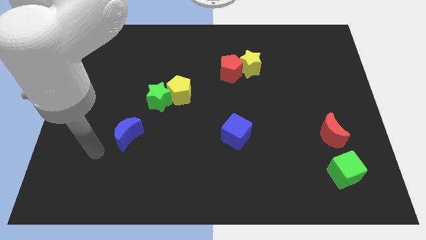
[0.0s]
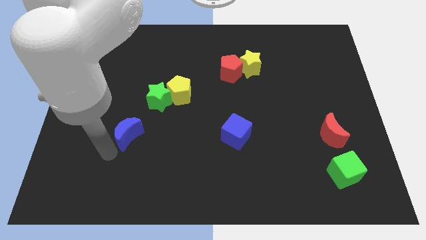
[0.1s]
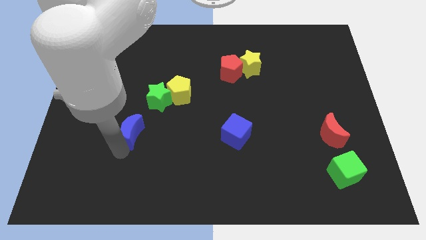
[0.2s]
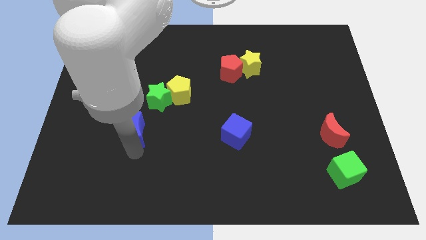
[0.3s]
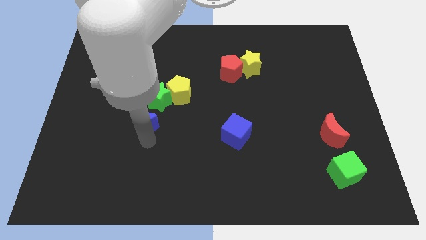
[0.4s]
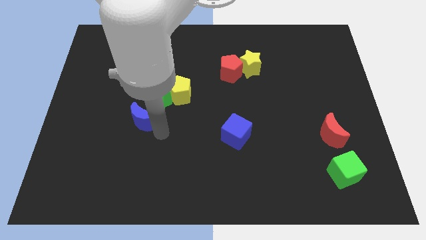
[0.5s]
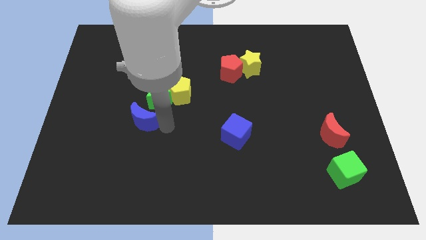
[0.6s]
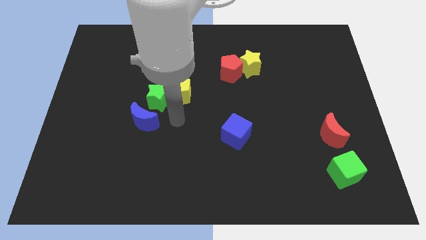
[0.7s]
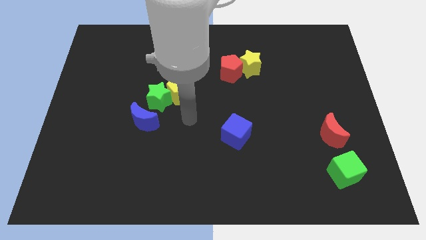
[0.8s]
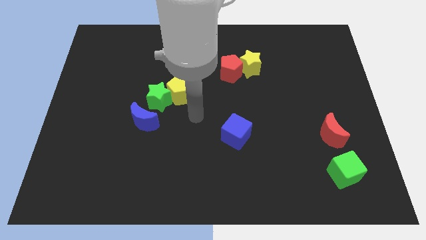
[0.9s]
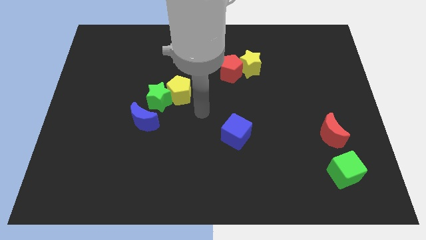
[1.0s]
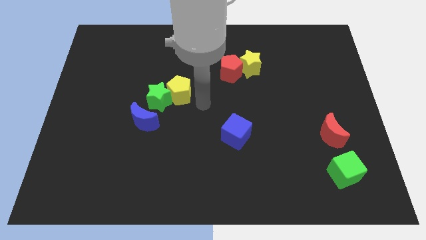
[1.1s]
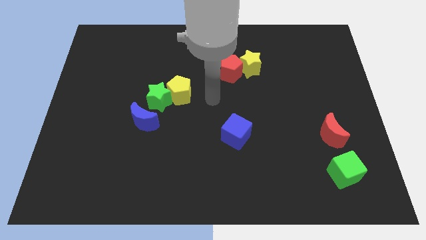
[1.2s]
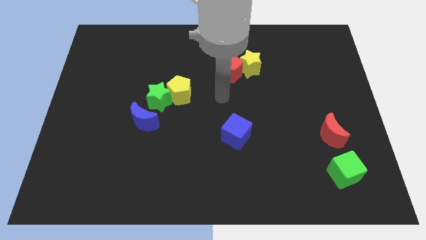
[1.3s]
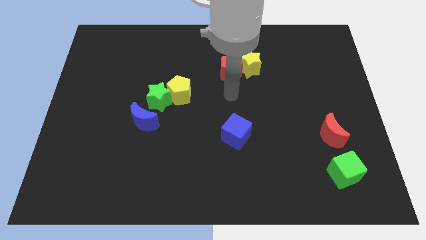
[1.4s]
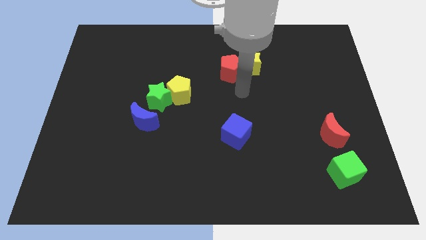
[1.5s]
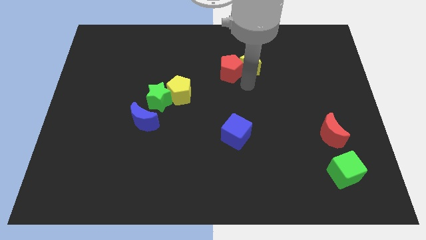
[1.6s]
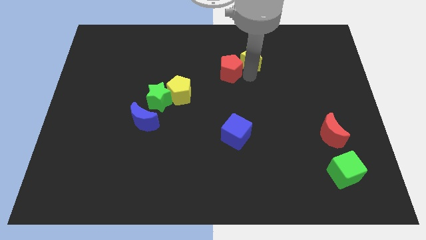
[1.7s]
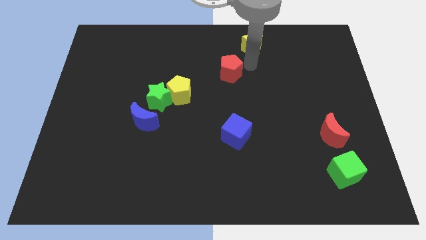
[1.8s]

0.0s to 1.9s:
move the red pentagon away from the yellow star

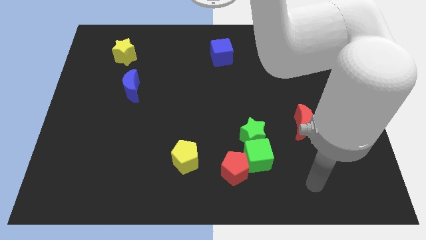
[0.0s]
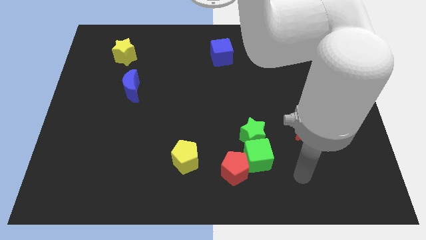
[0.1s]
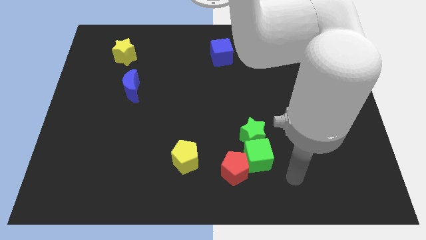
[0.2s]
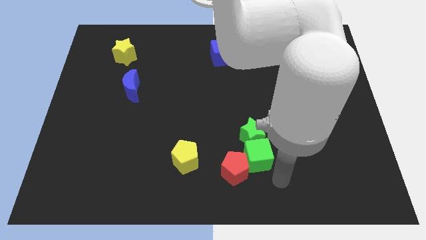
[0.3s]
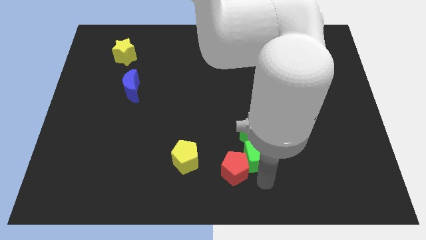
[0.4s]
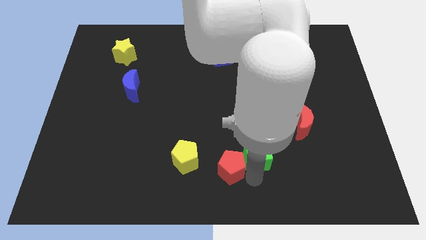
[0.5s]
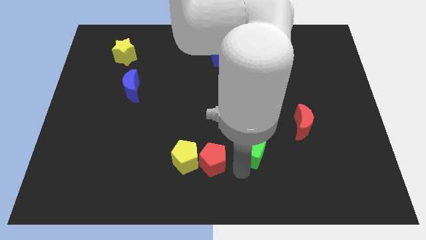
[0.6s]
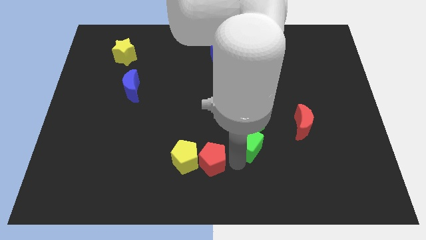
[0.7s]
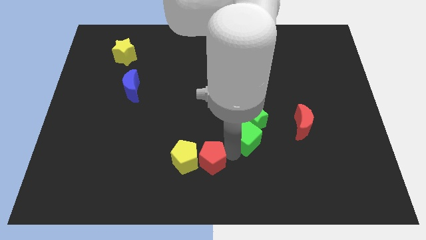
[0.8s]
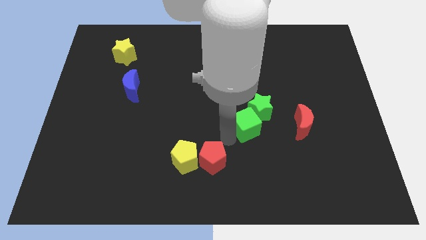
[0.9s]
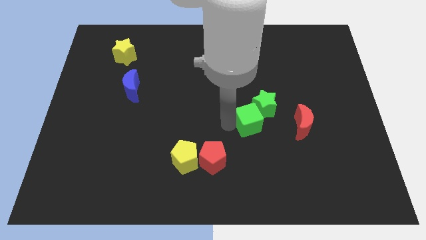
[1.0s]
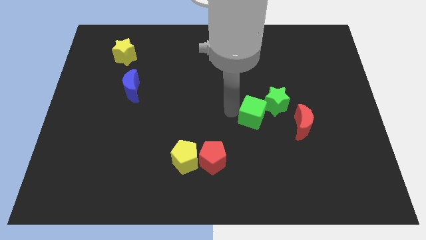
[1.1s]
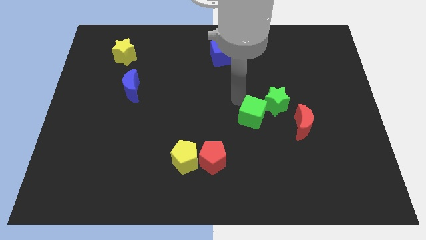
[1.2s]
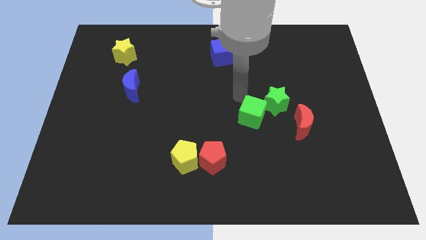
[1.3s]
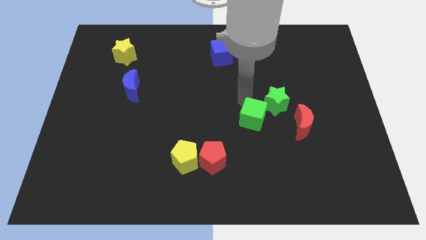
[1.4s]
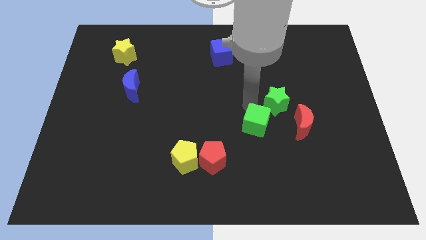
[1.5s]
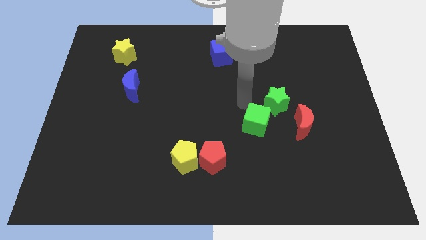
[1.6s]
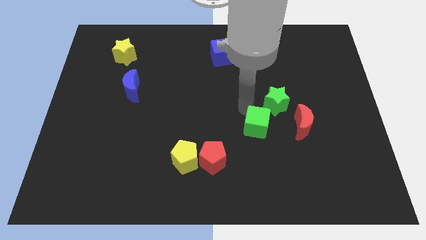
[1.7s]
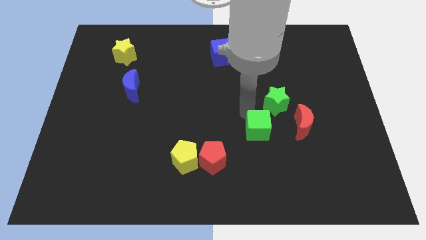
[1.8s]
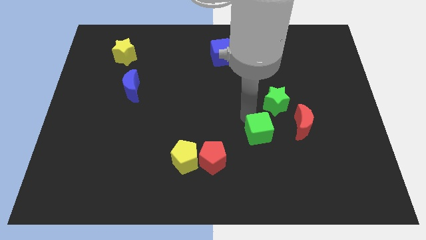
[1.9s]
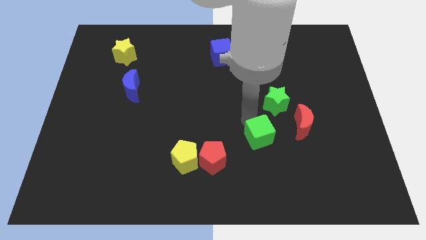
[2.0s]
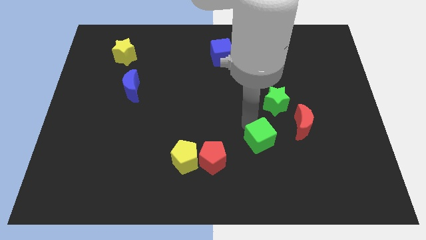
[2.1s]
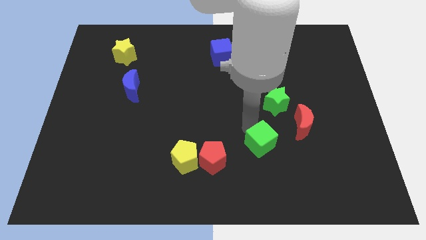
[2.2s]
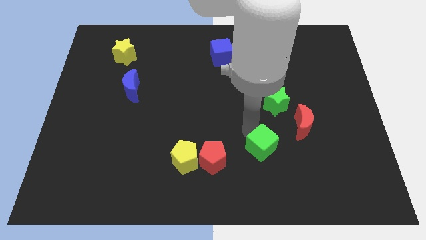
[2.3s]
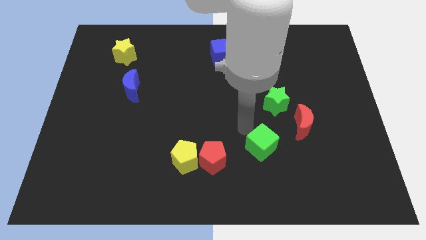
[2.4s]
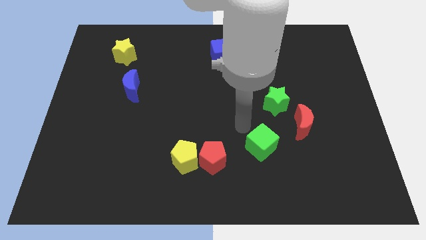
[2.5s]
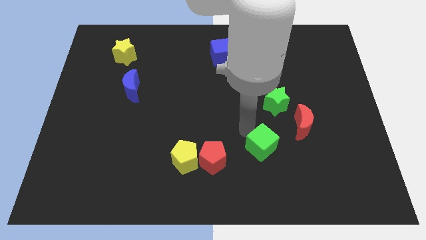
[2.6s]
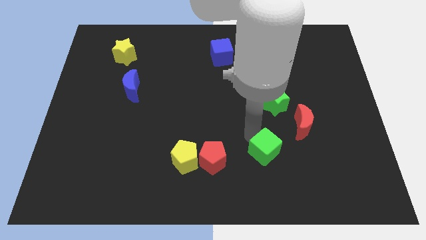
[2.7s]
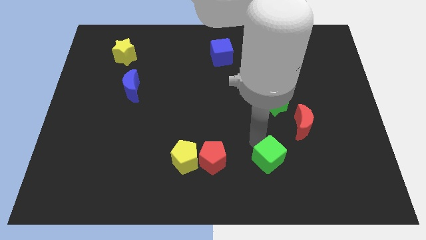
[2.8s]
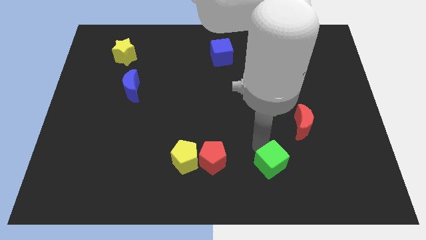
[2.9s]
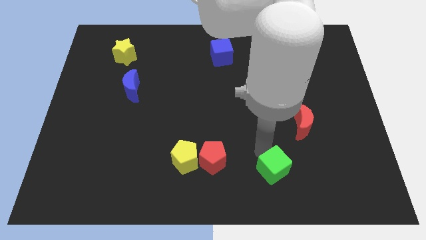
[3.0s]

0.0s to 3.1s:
move the green cube away from the green star and red pentagon

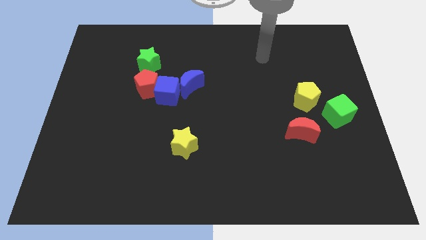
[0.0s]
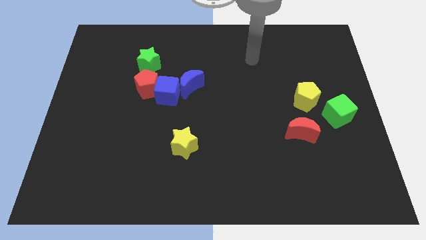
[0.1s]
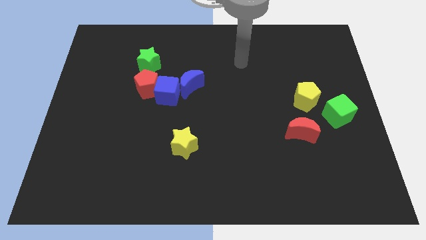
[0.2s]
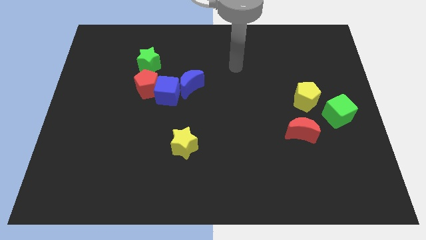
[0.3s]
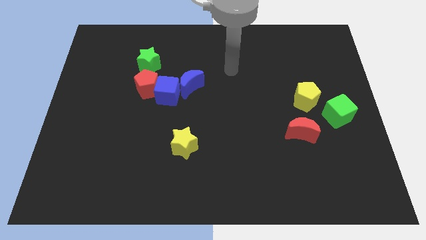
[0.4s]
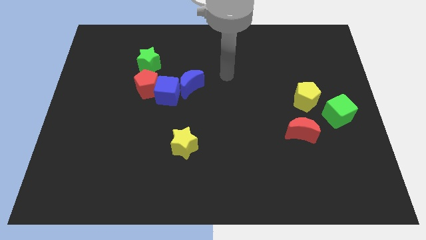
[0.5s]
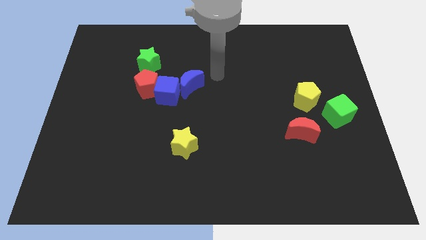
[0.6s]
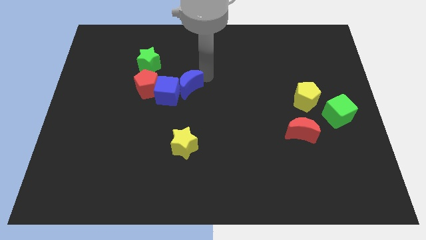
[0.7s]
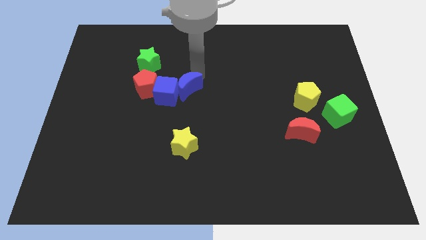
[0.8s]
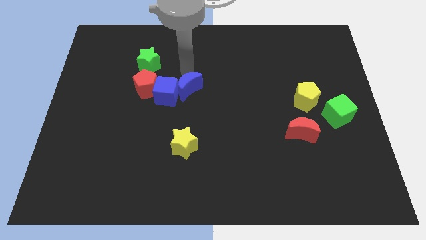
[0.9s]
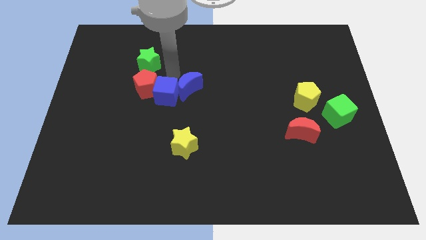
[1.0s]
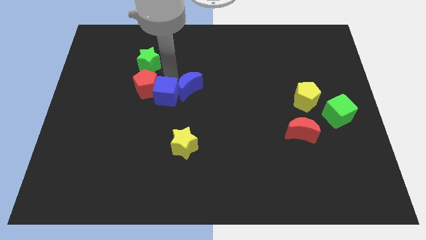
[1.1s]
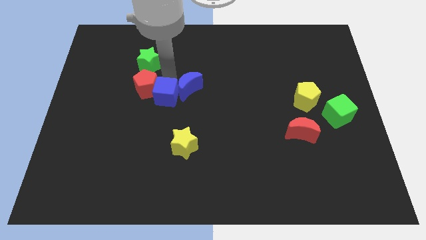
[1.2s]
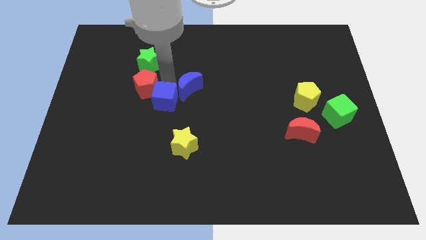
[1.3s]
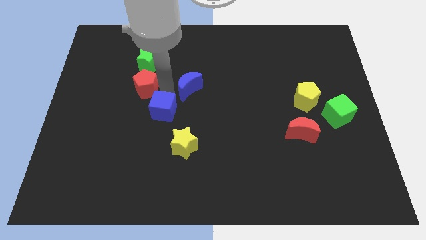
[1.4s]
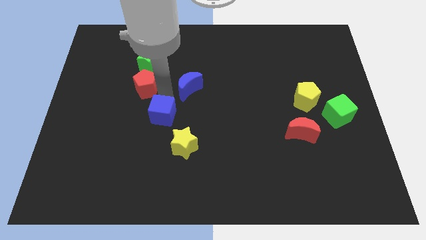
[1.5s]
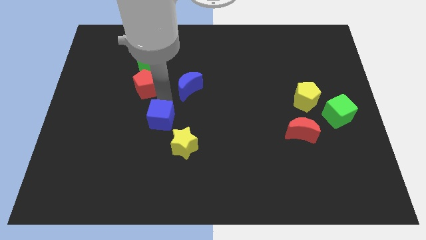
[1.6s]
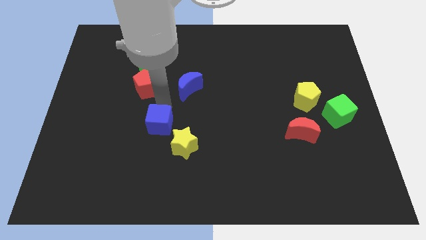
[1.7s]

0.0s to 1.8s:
separate the blue cube from the red pentagon and blue moon

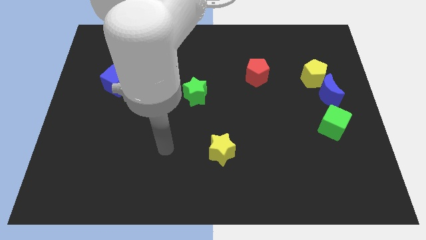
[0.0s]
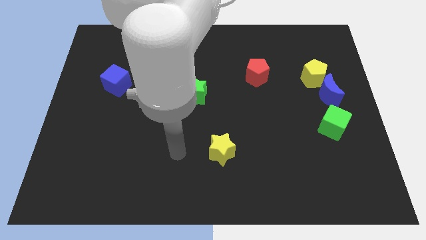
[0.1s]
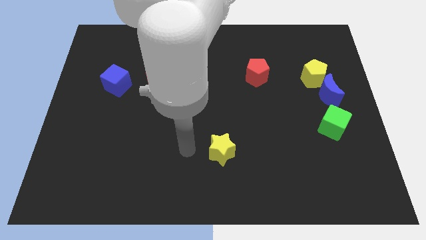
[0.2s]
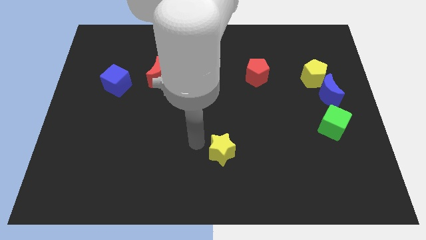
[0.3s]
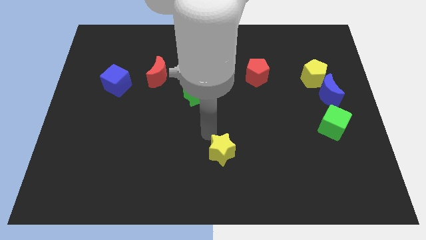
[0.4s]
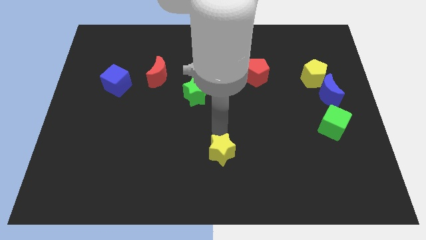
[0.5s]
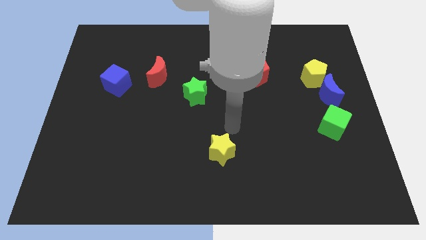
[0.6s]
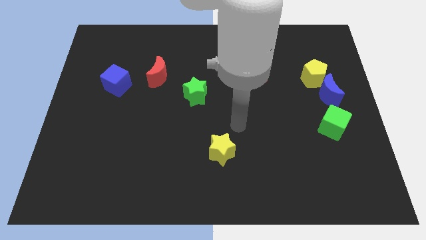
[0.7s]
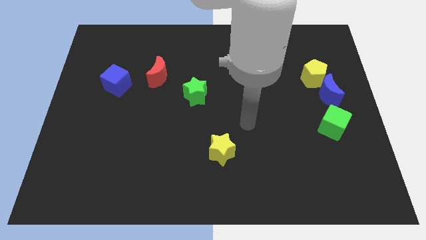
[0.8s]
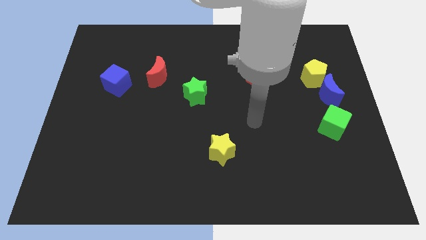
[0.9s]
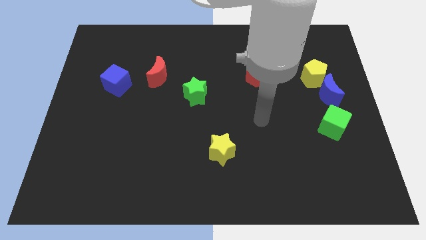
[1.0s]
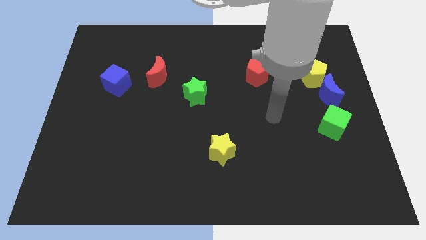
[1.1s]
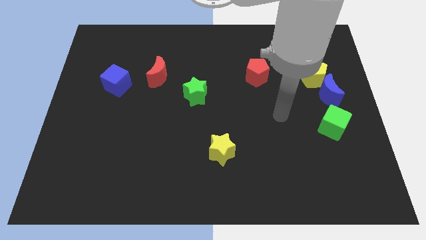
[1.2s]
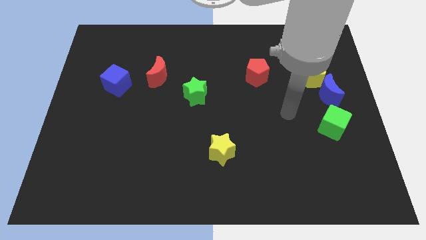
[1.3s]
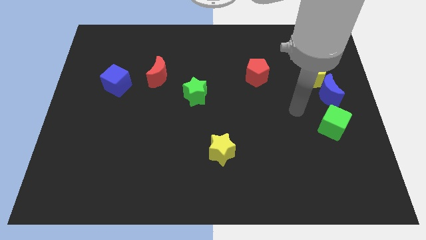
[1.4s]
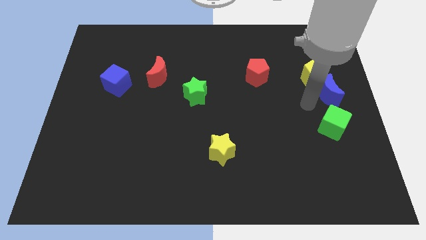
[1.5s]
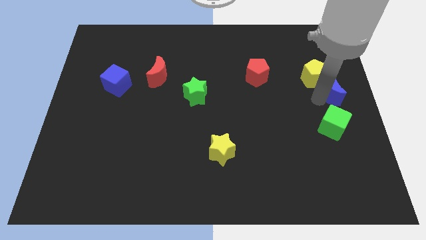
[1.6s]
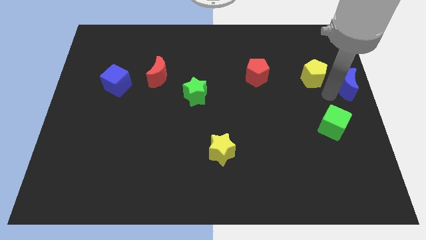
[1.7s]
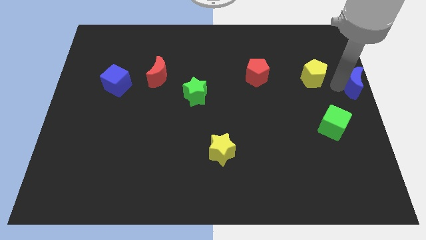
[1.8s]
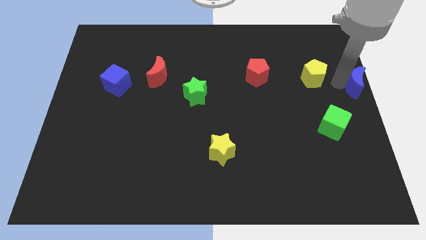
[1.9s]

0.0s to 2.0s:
pull the yellow pentagon apart from the blue moon

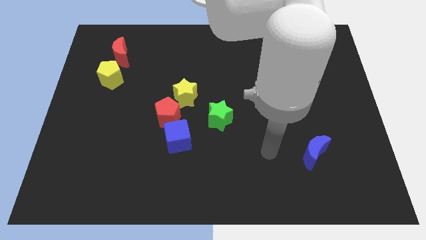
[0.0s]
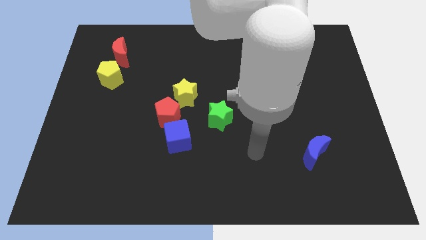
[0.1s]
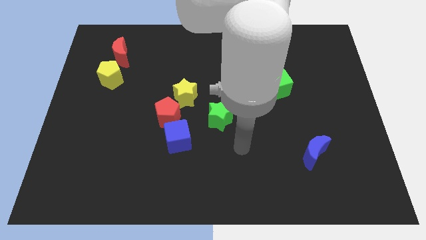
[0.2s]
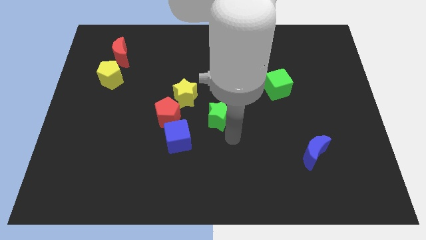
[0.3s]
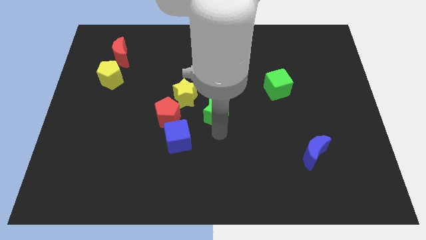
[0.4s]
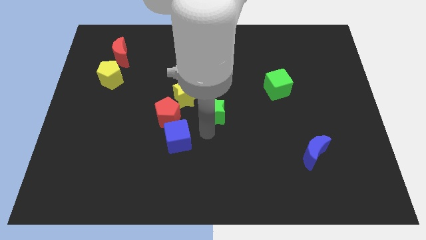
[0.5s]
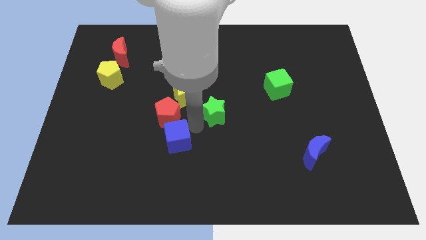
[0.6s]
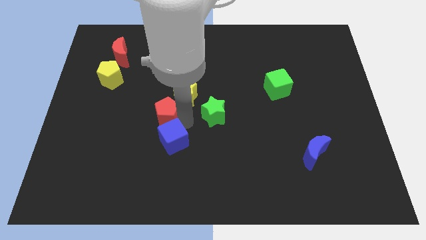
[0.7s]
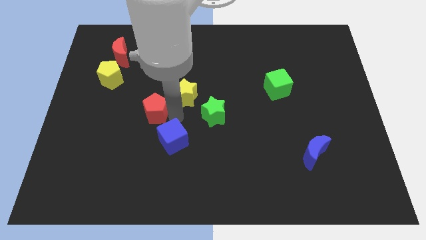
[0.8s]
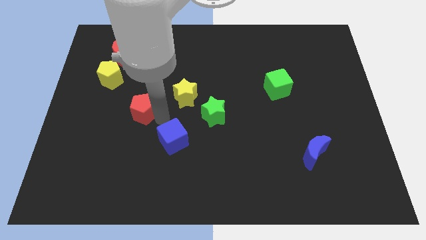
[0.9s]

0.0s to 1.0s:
pull the blue cube apart from the red pentagon
